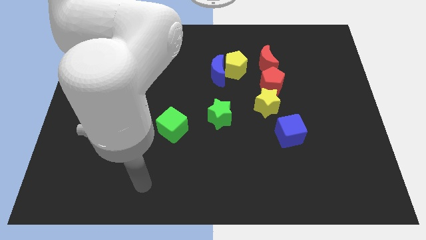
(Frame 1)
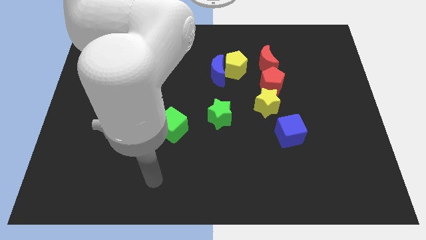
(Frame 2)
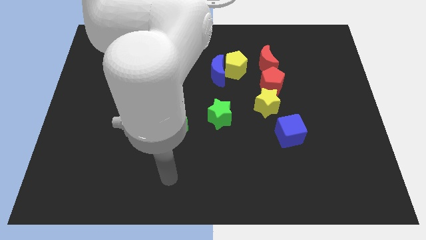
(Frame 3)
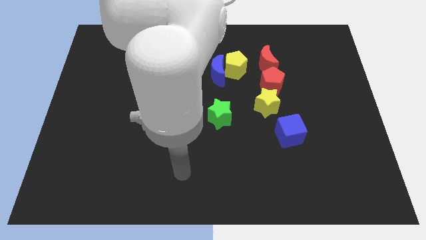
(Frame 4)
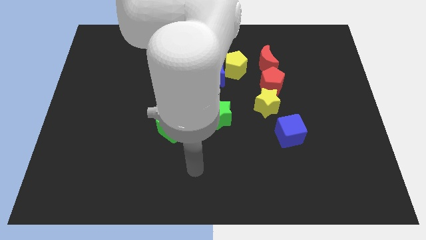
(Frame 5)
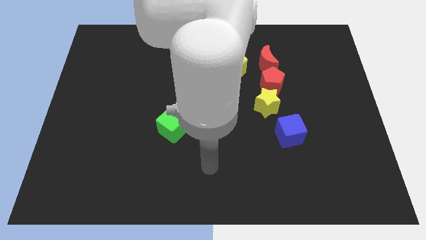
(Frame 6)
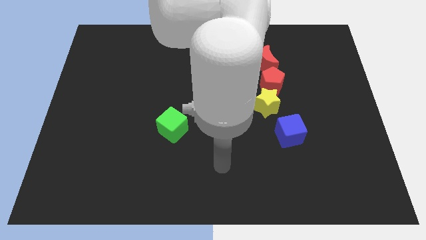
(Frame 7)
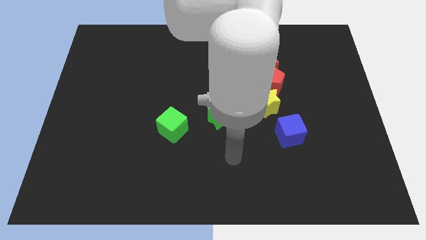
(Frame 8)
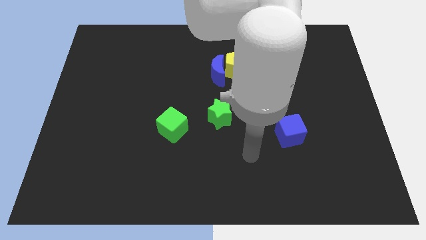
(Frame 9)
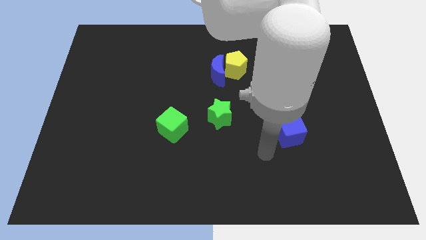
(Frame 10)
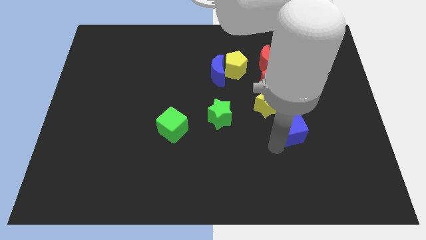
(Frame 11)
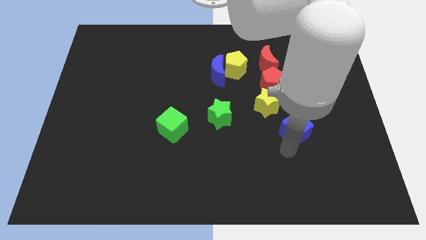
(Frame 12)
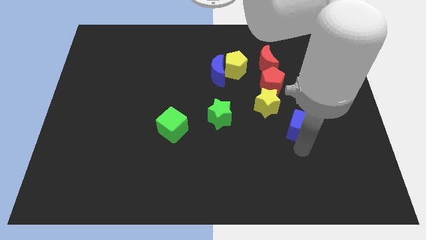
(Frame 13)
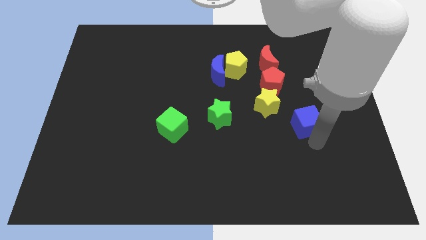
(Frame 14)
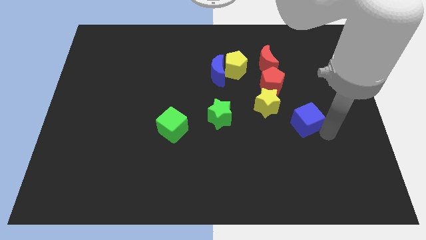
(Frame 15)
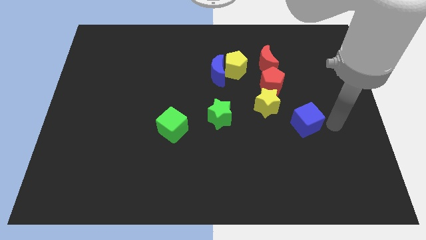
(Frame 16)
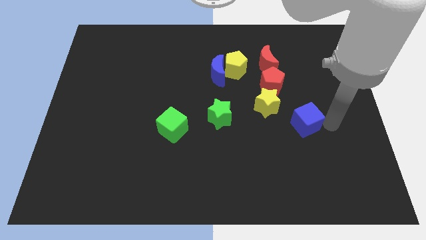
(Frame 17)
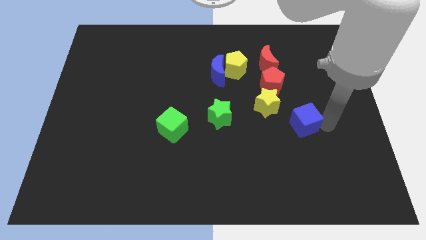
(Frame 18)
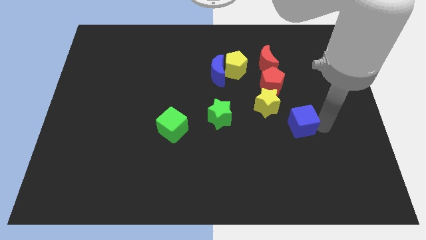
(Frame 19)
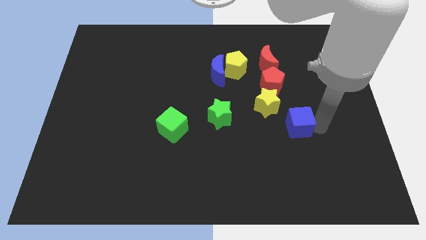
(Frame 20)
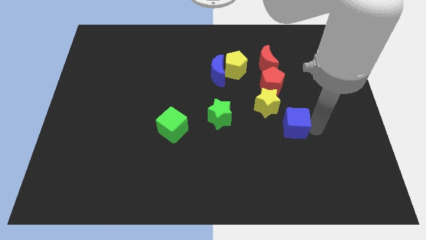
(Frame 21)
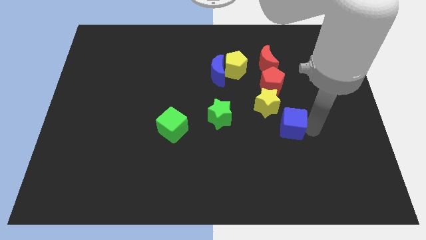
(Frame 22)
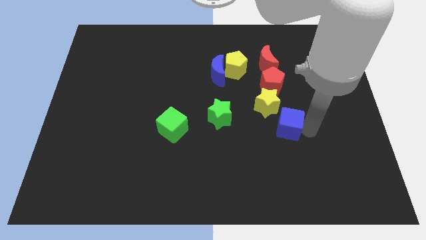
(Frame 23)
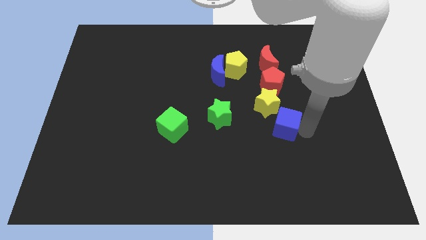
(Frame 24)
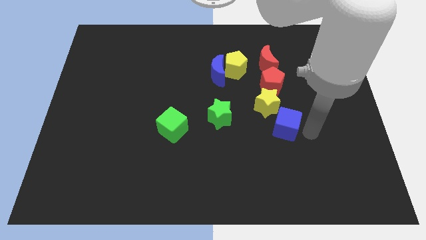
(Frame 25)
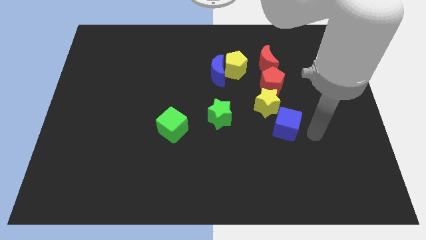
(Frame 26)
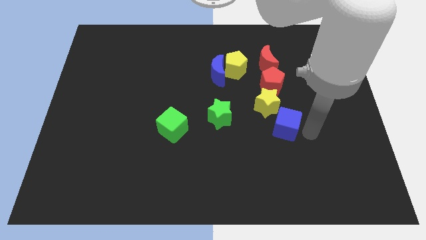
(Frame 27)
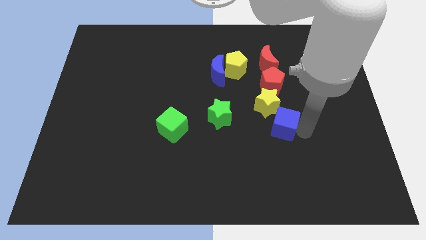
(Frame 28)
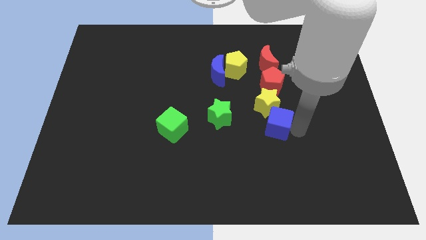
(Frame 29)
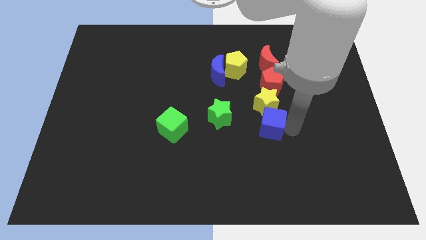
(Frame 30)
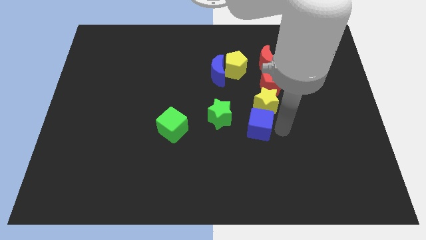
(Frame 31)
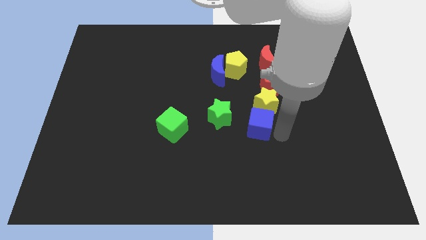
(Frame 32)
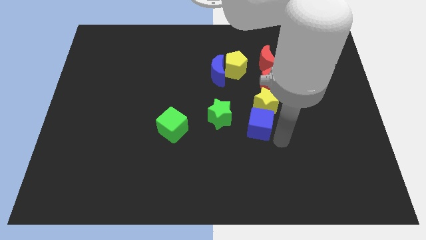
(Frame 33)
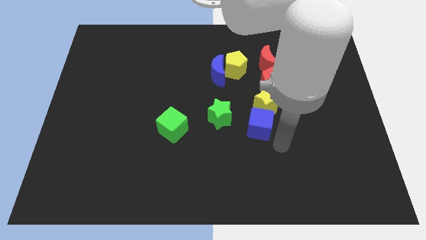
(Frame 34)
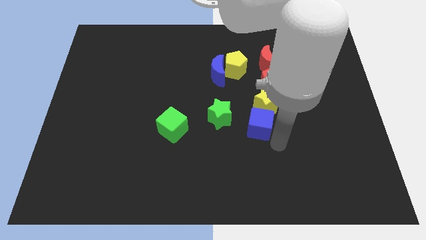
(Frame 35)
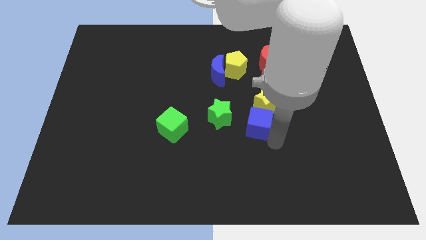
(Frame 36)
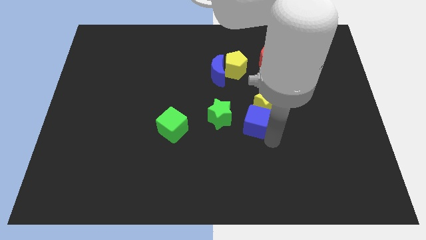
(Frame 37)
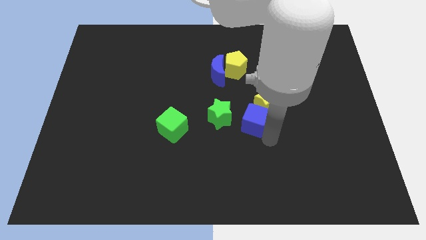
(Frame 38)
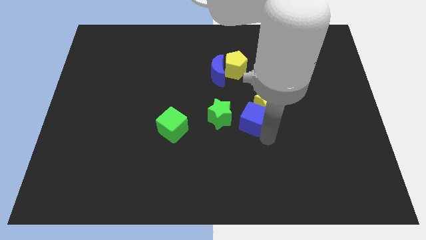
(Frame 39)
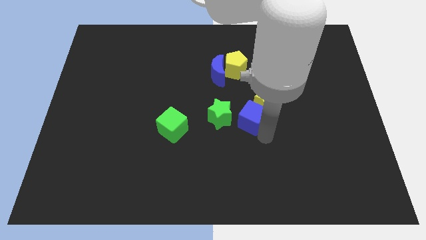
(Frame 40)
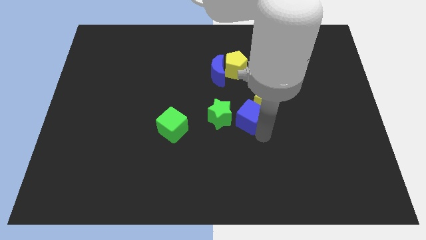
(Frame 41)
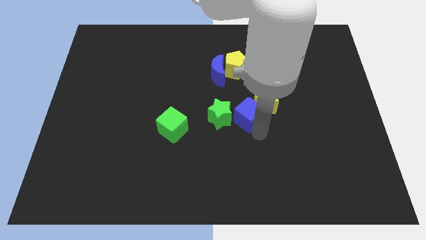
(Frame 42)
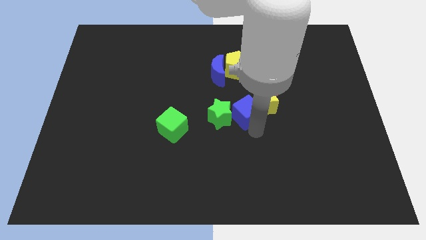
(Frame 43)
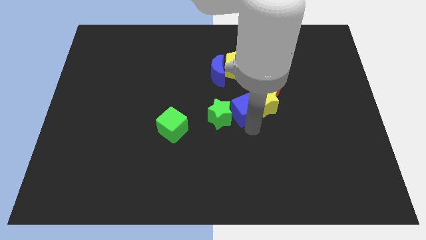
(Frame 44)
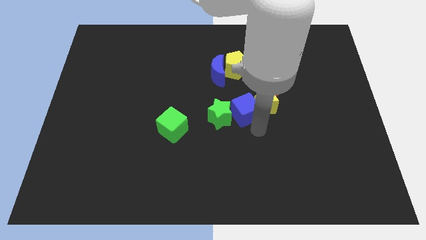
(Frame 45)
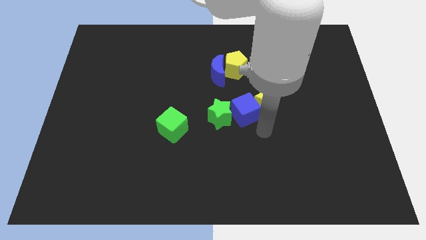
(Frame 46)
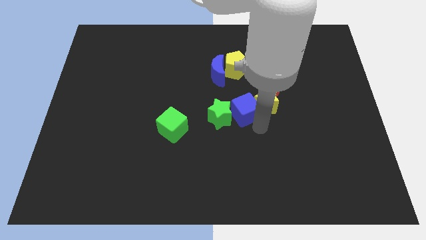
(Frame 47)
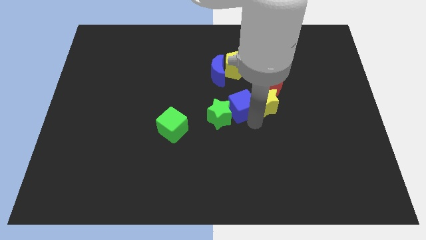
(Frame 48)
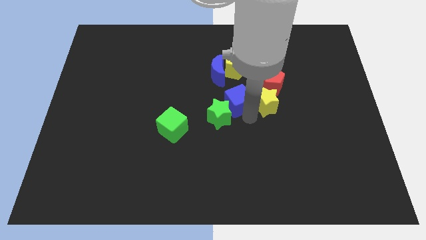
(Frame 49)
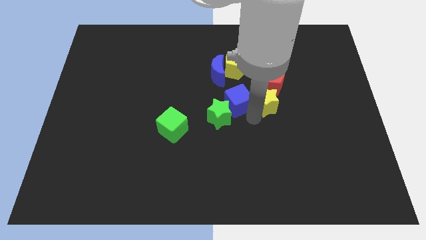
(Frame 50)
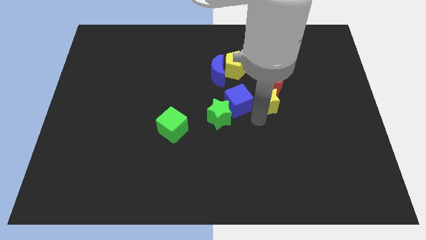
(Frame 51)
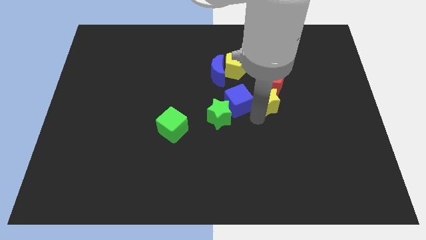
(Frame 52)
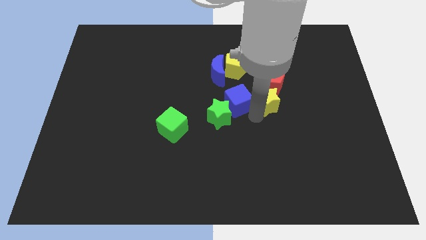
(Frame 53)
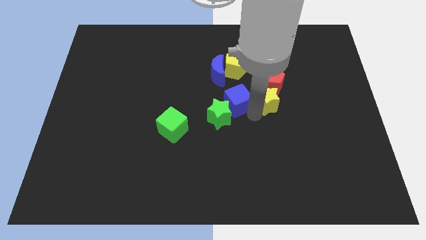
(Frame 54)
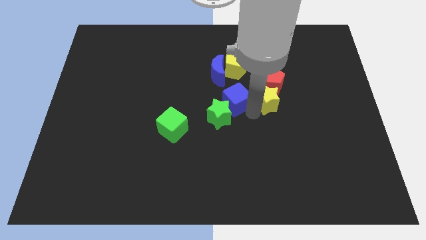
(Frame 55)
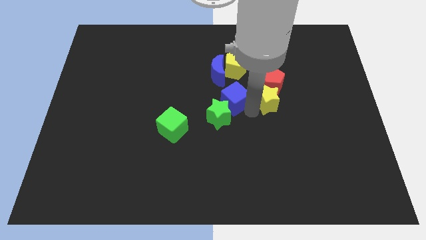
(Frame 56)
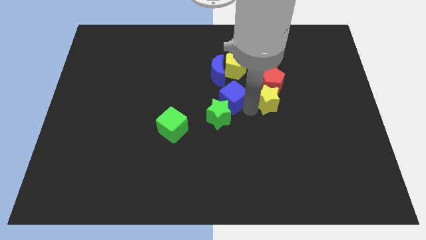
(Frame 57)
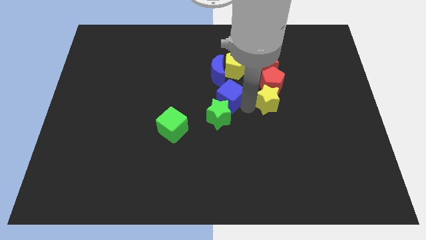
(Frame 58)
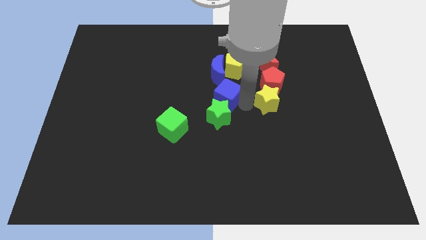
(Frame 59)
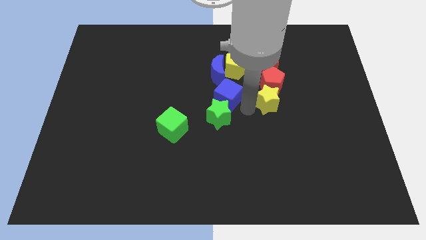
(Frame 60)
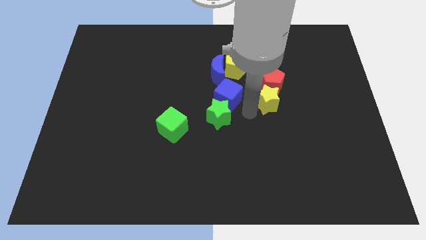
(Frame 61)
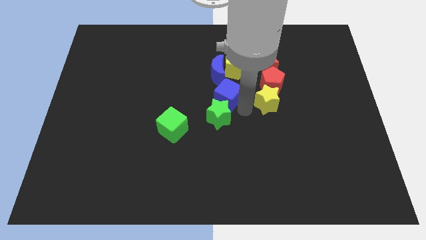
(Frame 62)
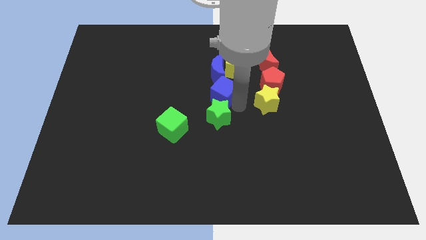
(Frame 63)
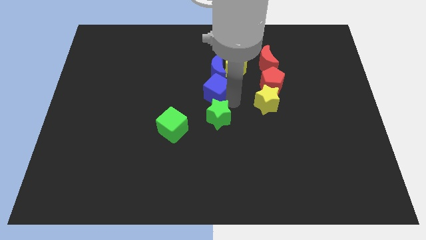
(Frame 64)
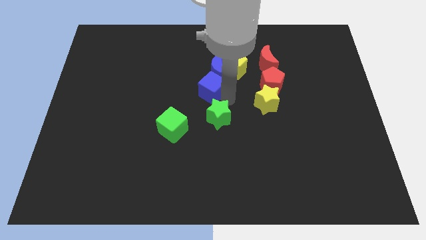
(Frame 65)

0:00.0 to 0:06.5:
slide the blue cube diagonally upwards and to the left

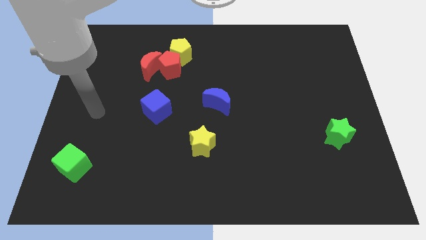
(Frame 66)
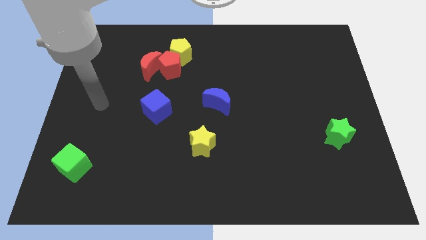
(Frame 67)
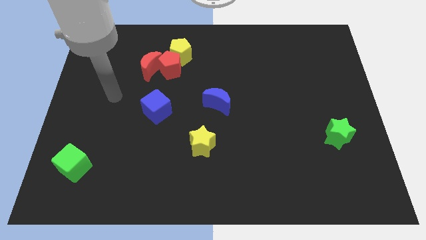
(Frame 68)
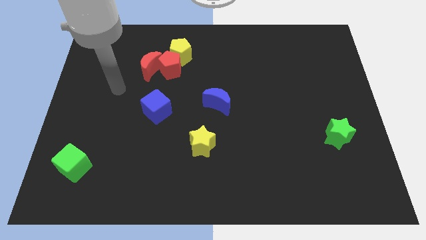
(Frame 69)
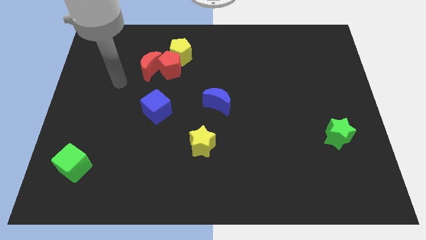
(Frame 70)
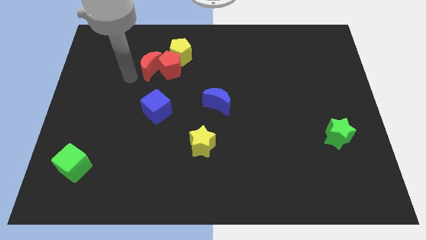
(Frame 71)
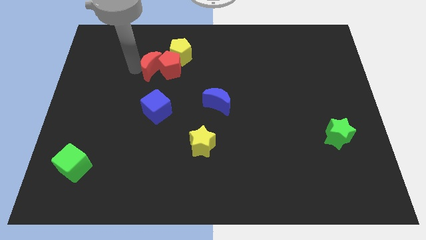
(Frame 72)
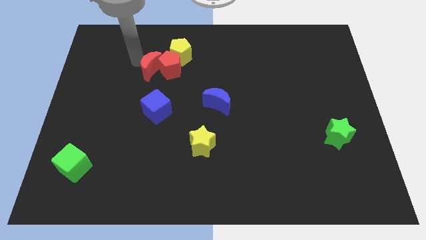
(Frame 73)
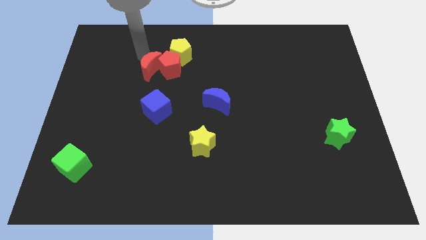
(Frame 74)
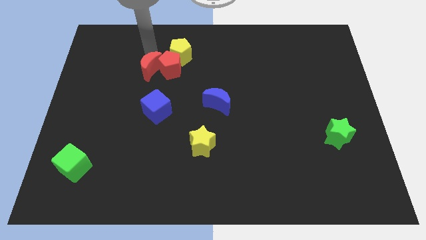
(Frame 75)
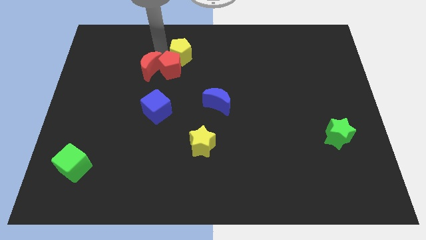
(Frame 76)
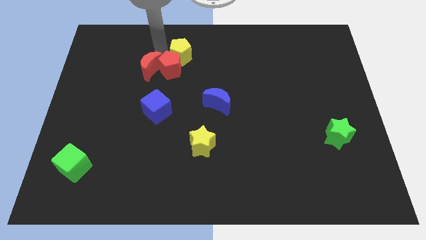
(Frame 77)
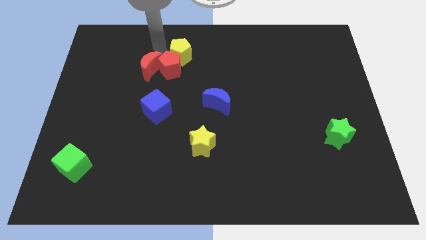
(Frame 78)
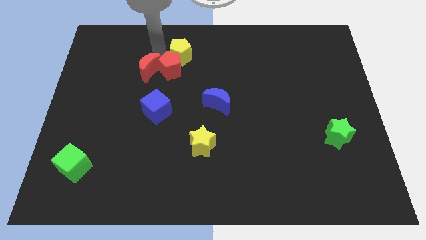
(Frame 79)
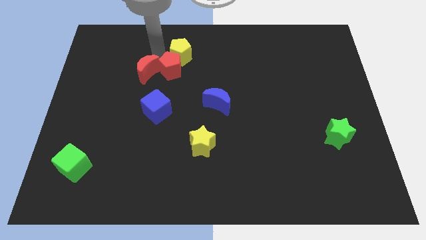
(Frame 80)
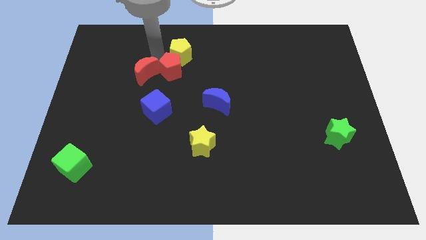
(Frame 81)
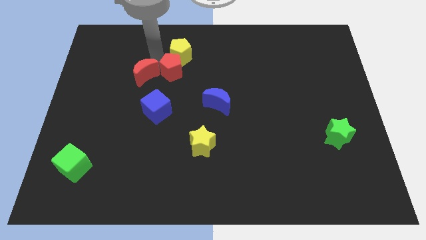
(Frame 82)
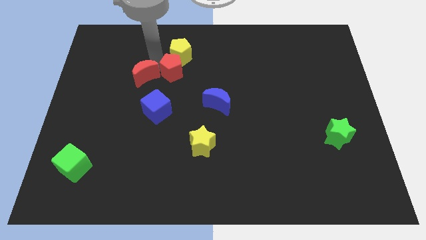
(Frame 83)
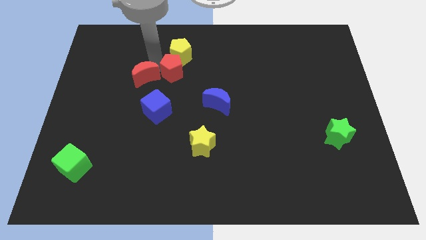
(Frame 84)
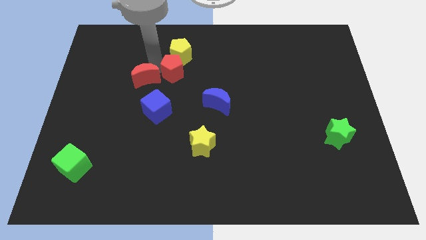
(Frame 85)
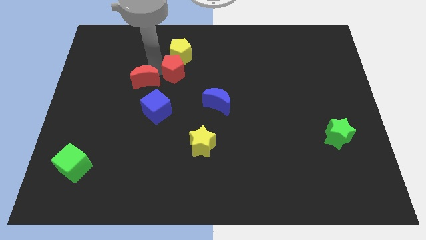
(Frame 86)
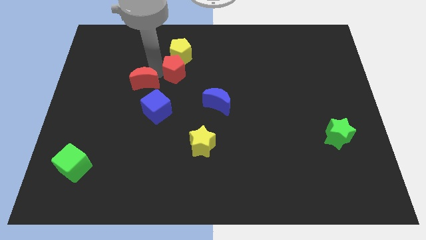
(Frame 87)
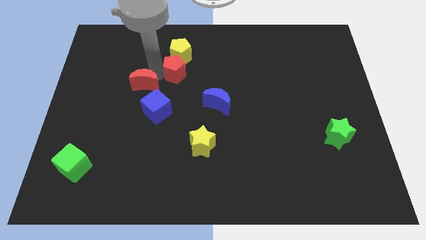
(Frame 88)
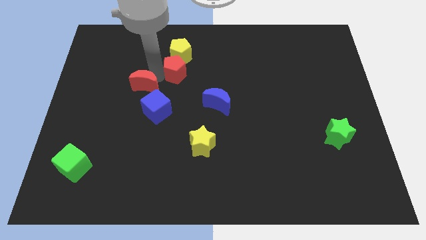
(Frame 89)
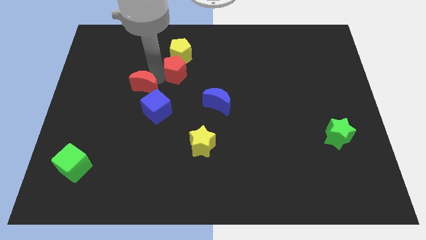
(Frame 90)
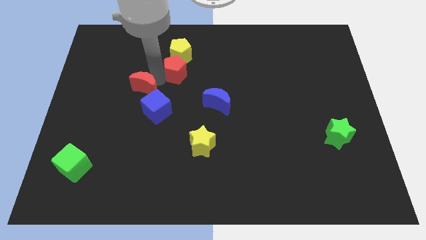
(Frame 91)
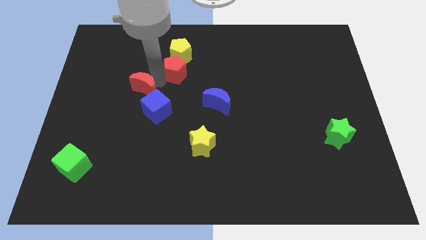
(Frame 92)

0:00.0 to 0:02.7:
push the red moon slightly downwards
